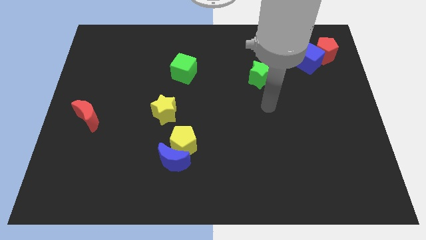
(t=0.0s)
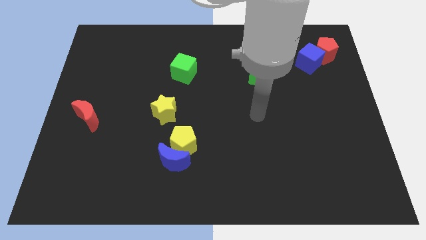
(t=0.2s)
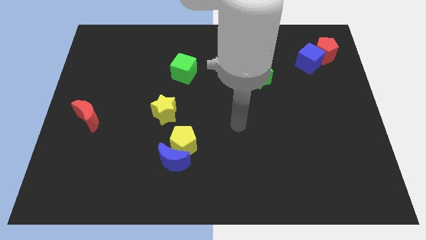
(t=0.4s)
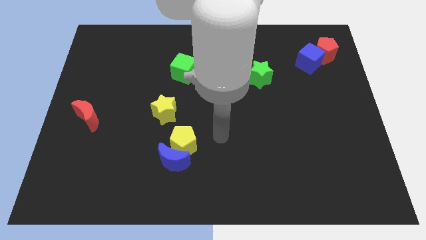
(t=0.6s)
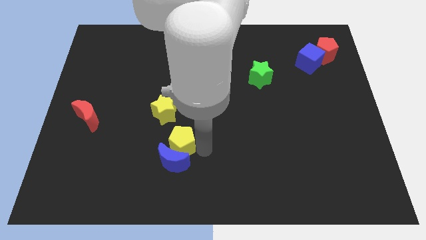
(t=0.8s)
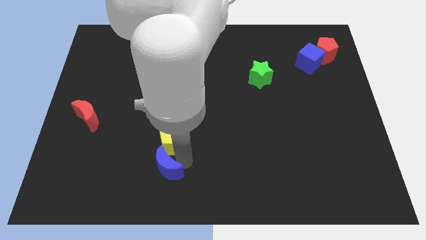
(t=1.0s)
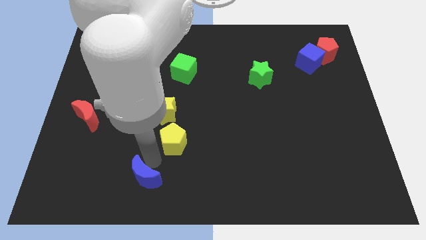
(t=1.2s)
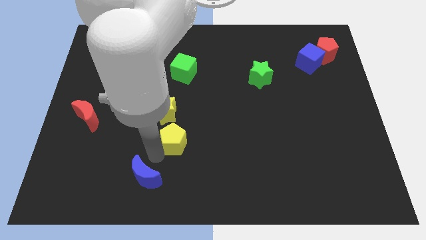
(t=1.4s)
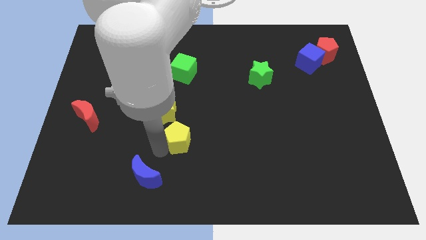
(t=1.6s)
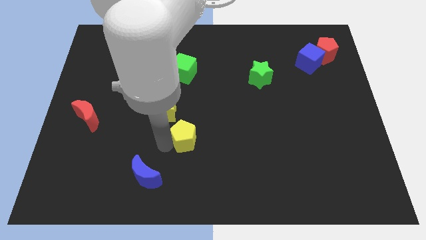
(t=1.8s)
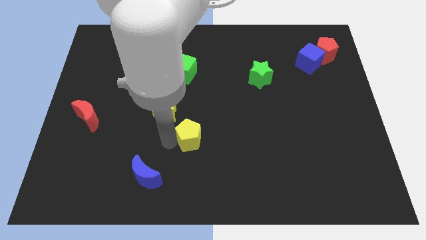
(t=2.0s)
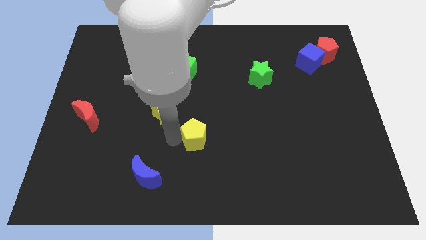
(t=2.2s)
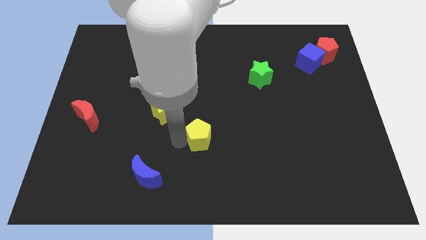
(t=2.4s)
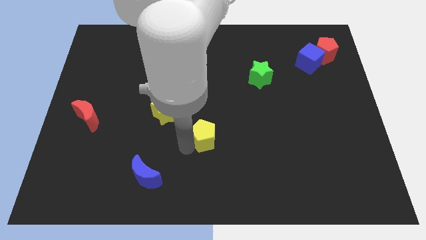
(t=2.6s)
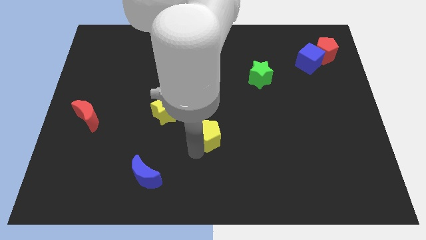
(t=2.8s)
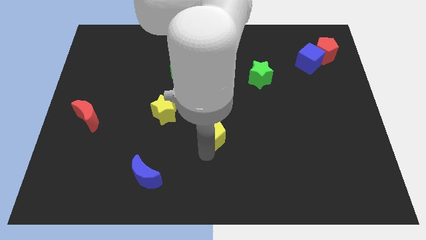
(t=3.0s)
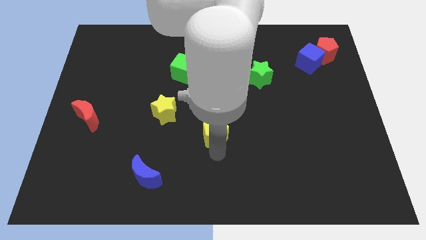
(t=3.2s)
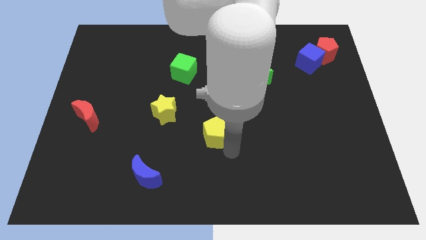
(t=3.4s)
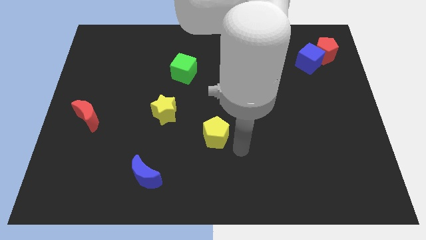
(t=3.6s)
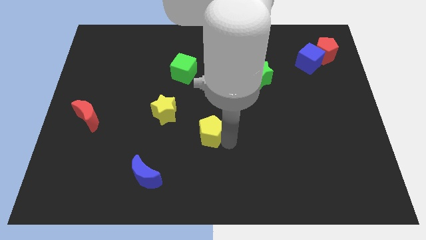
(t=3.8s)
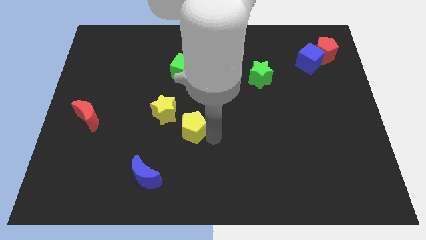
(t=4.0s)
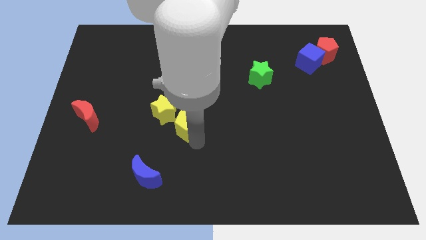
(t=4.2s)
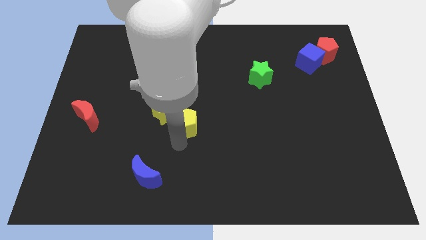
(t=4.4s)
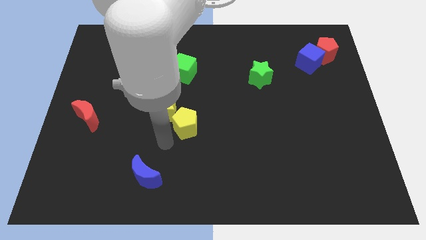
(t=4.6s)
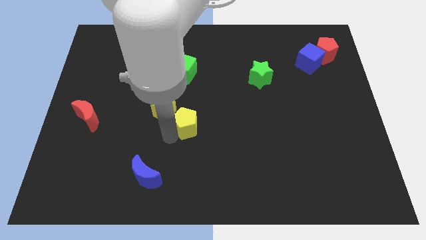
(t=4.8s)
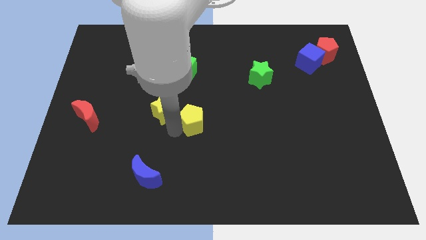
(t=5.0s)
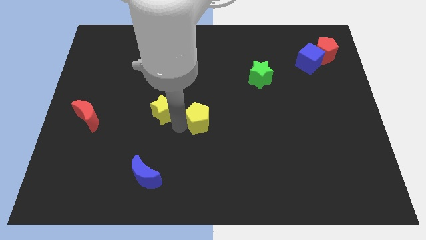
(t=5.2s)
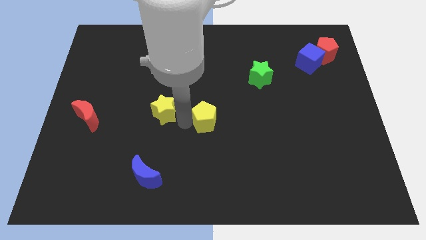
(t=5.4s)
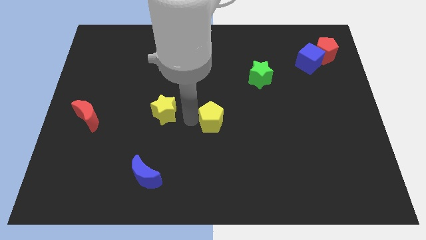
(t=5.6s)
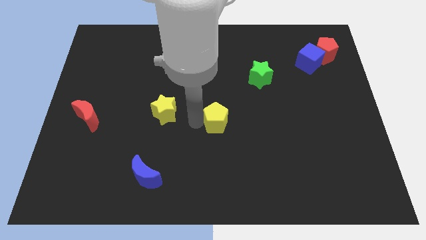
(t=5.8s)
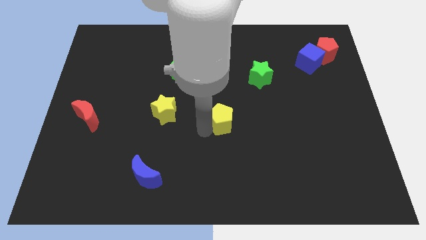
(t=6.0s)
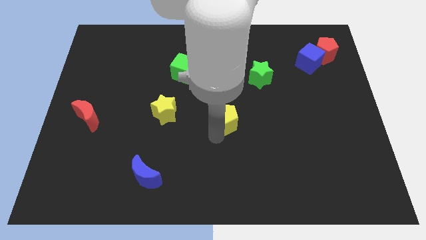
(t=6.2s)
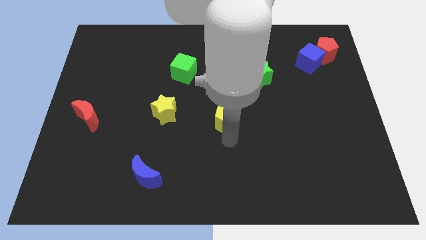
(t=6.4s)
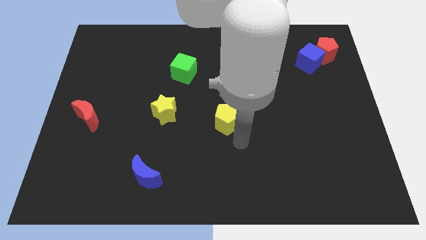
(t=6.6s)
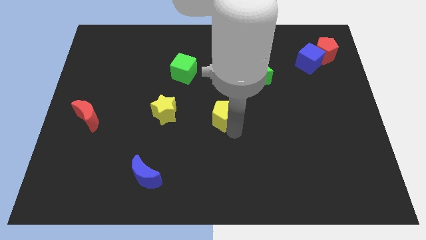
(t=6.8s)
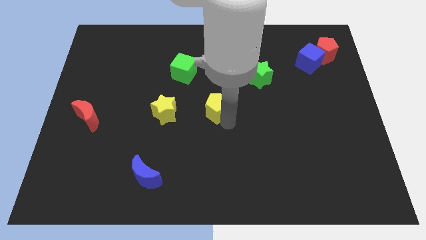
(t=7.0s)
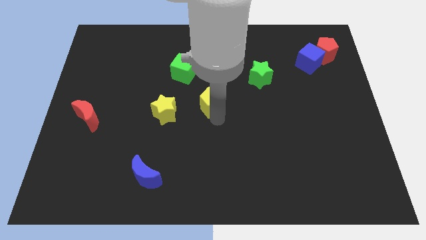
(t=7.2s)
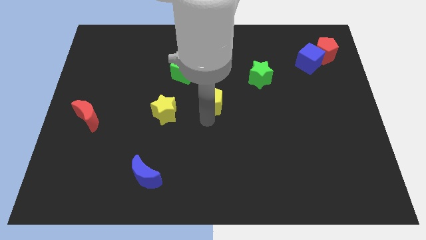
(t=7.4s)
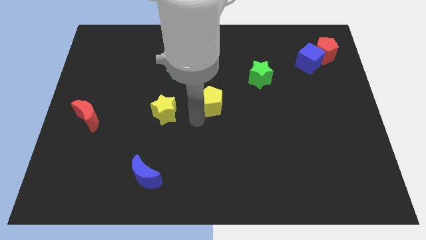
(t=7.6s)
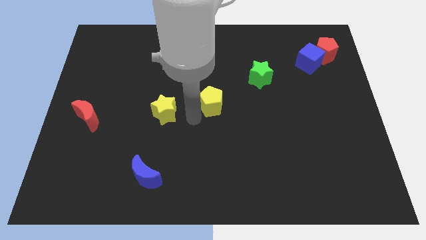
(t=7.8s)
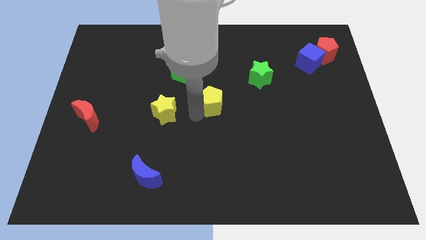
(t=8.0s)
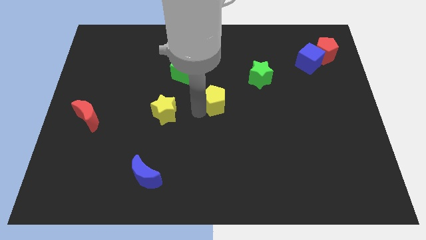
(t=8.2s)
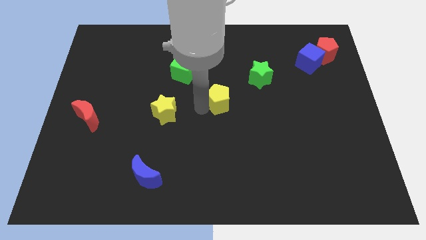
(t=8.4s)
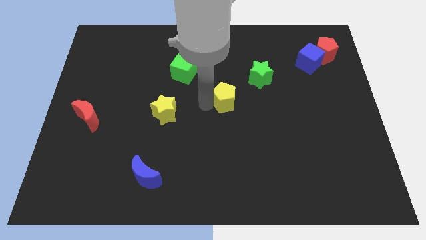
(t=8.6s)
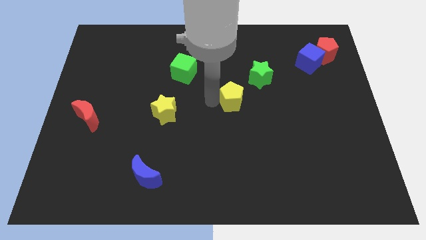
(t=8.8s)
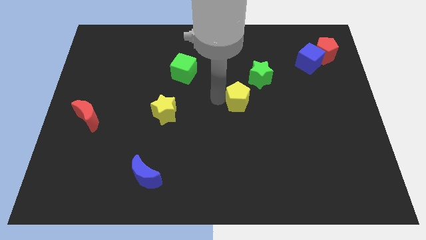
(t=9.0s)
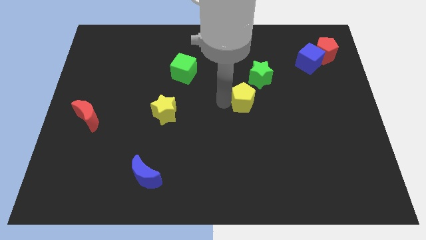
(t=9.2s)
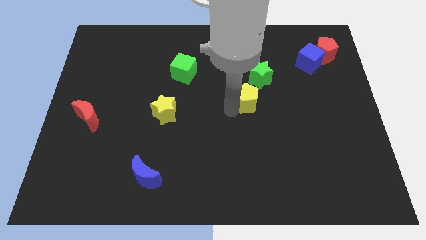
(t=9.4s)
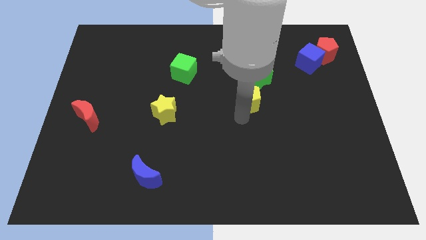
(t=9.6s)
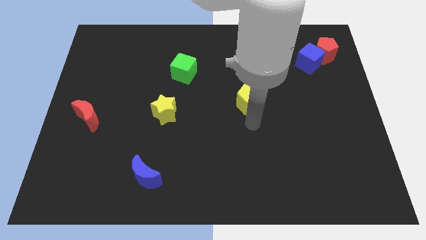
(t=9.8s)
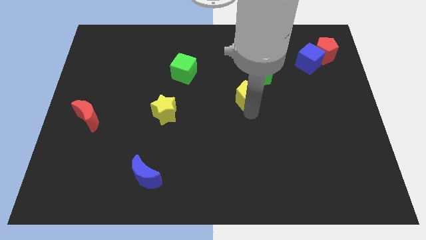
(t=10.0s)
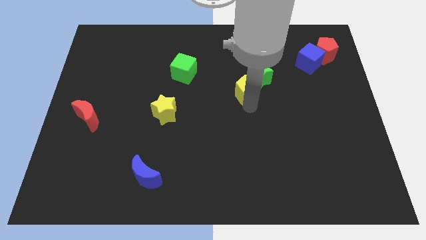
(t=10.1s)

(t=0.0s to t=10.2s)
put the yellow pentagon close to the green star
